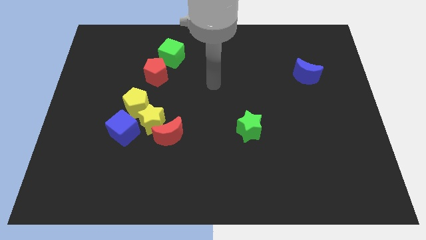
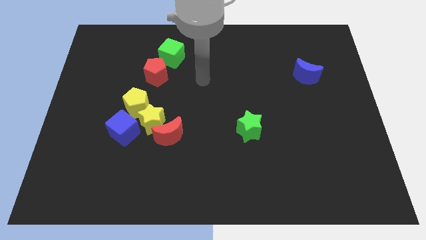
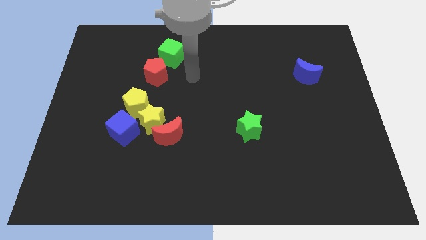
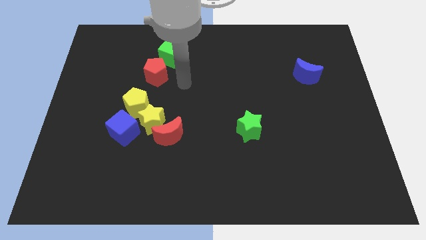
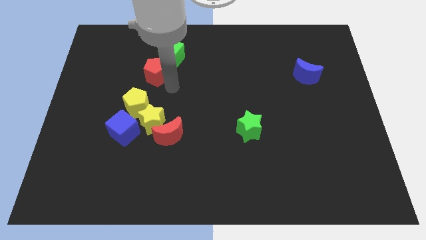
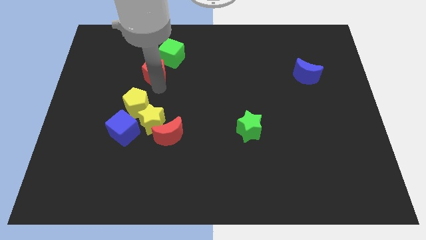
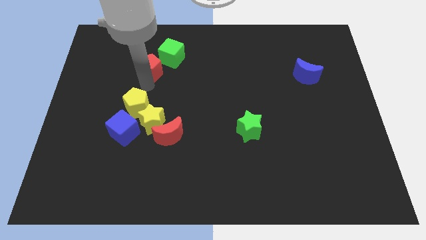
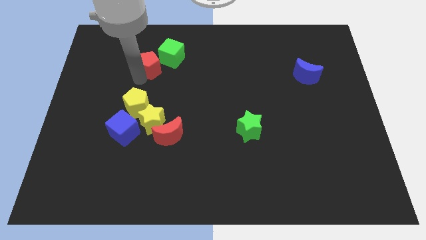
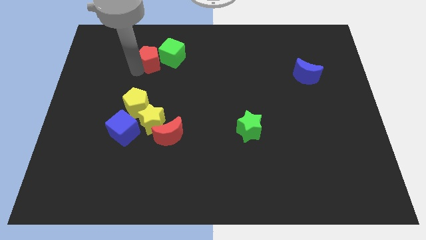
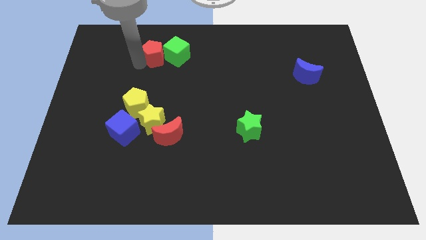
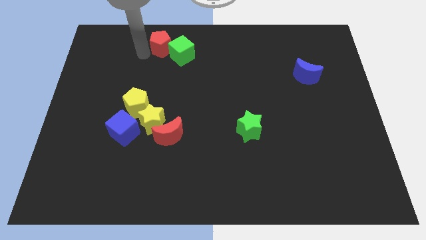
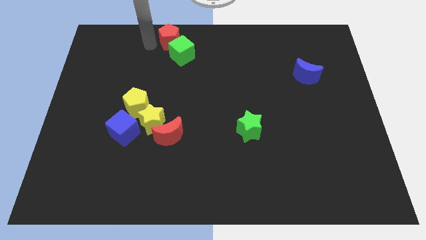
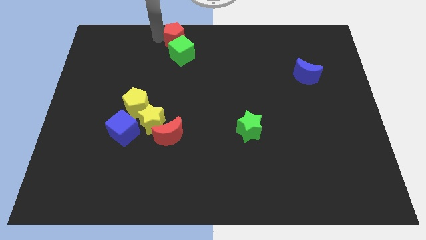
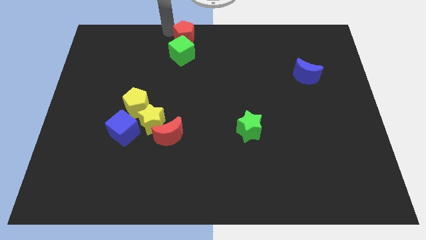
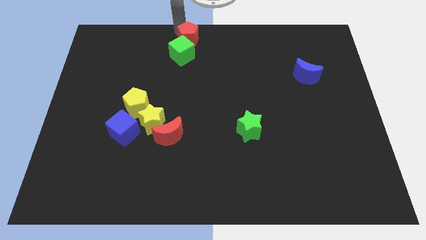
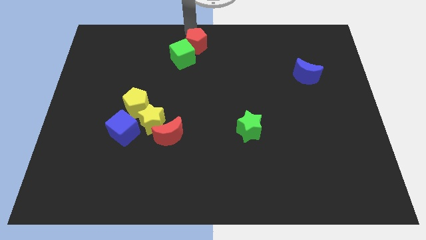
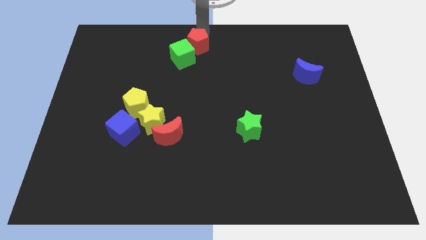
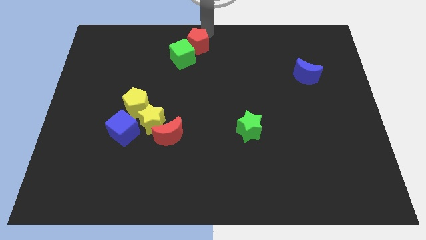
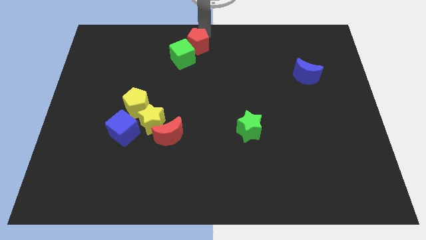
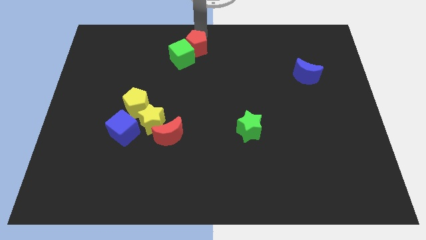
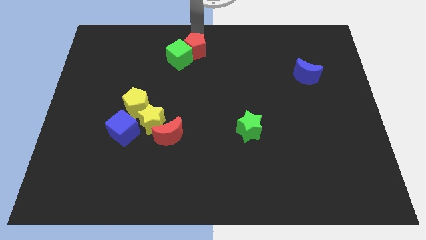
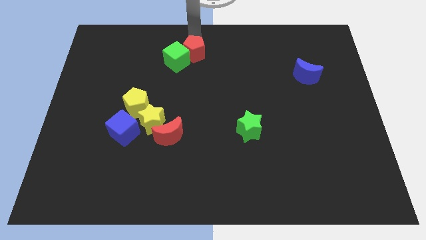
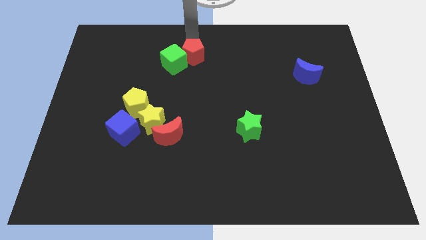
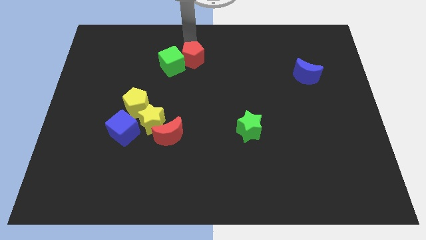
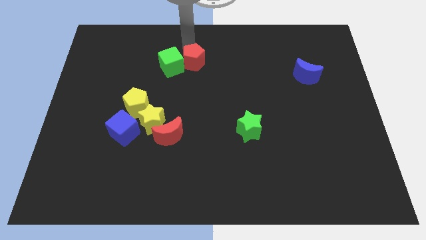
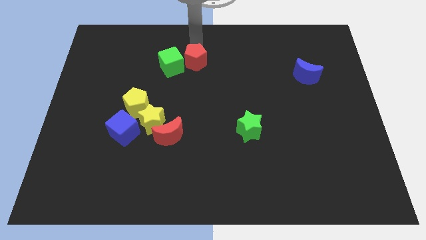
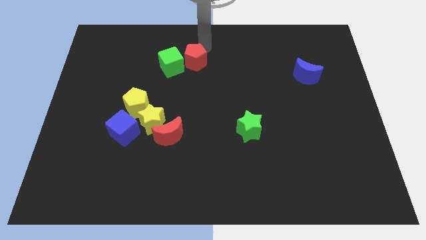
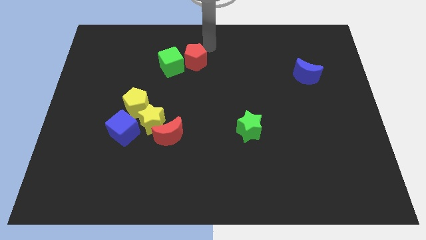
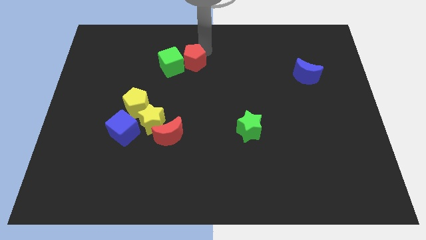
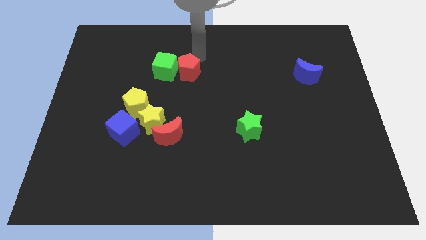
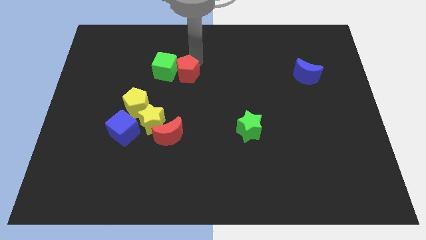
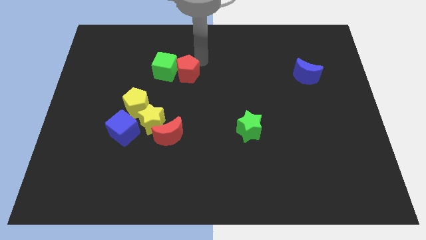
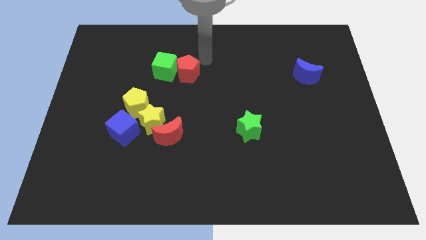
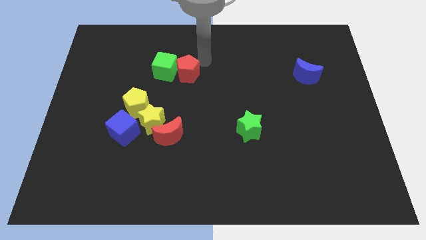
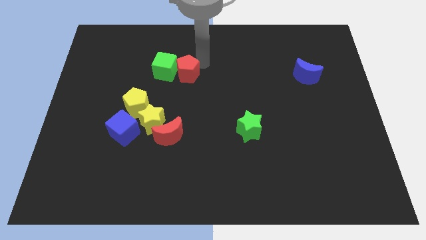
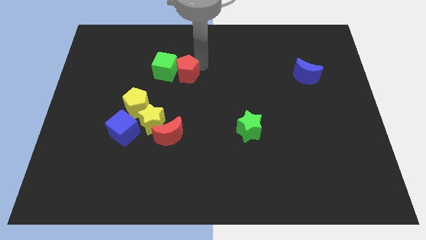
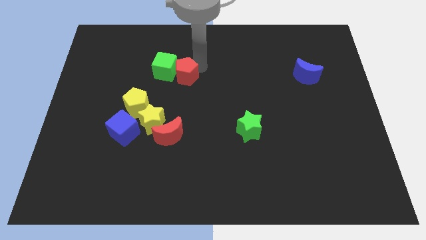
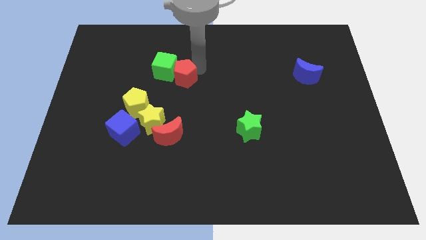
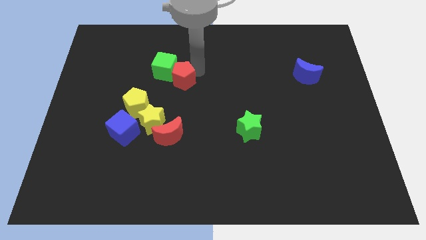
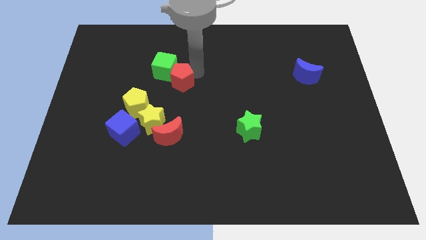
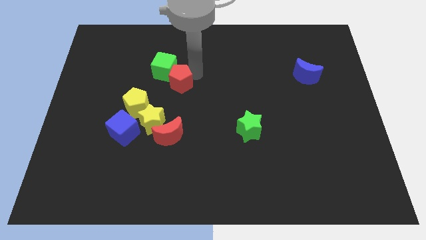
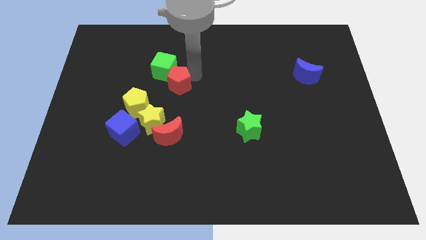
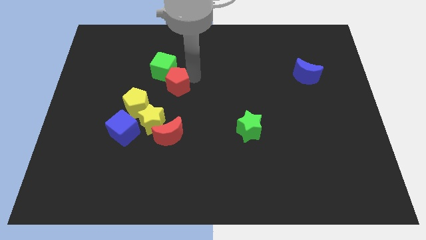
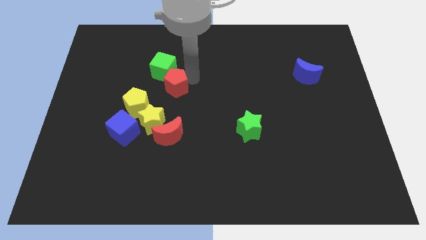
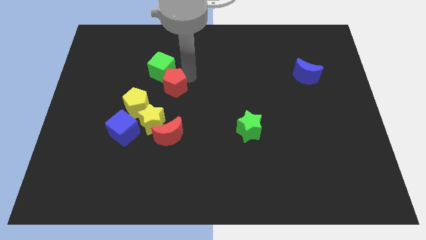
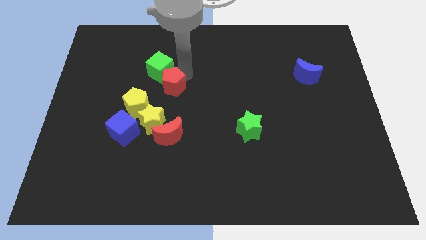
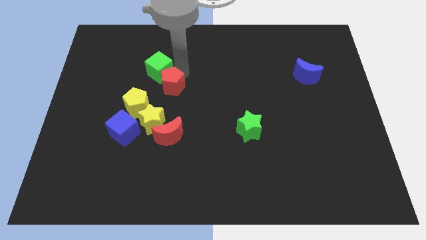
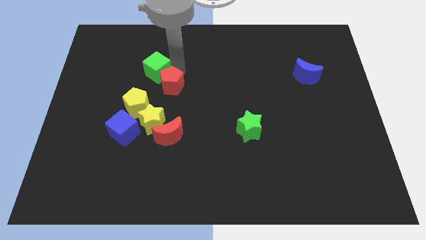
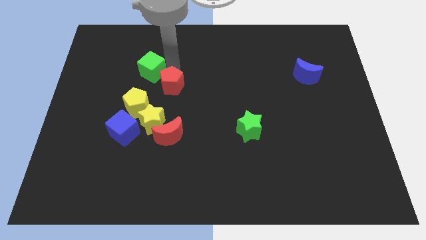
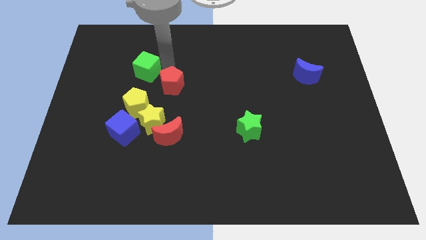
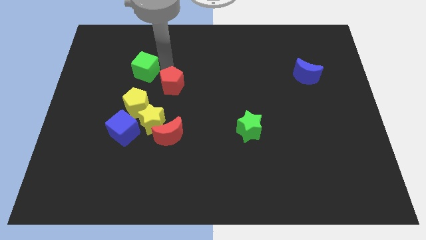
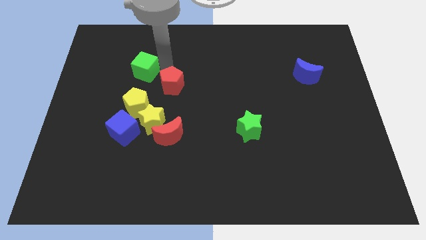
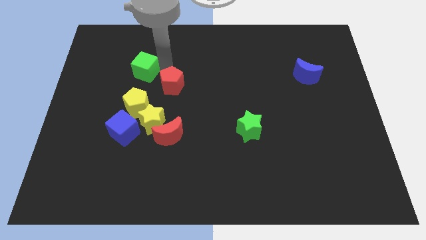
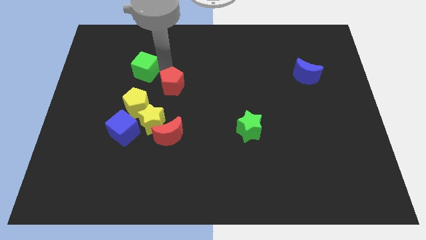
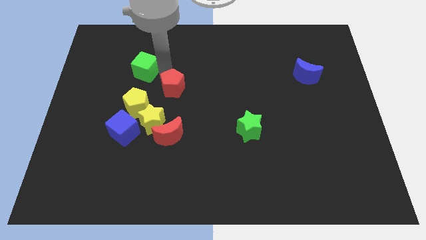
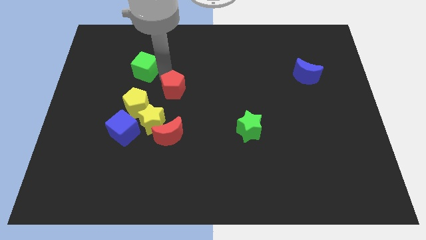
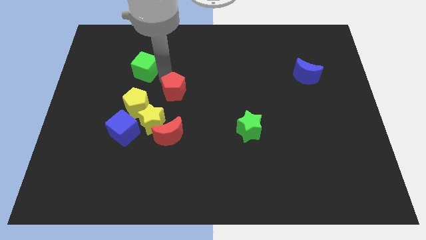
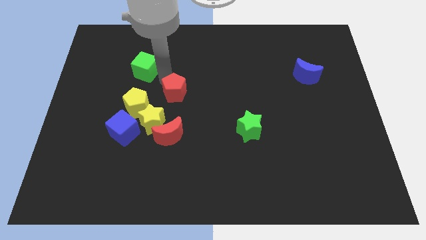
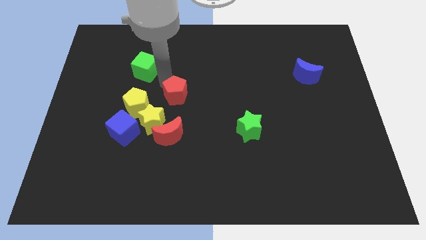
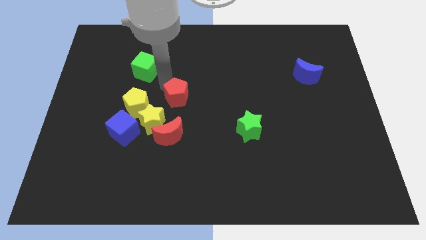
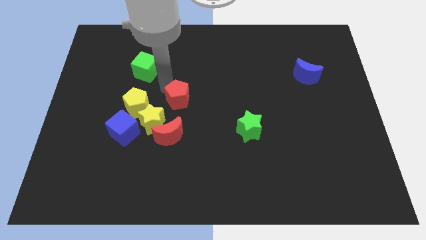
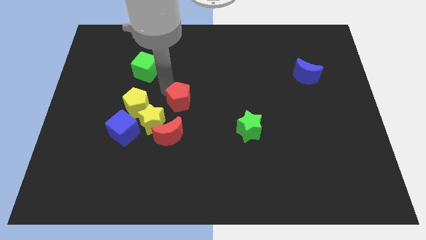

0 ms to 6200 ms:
move the red pentagon down a little

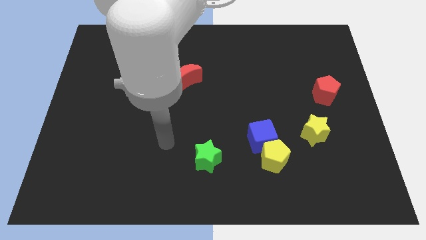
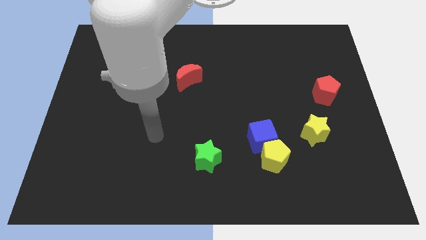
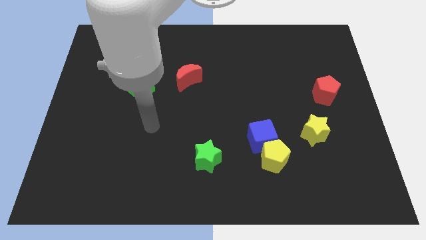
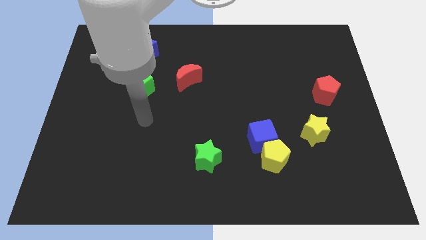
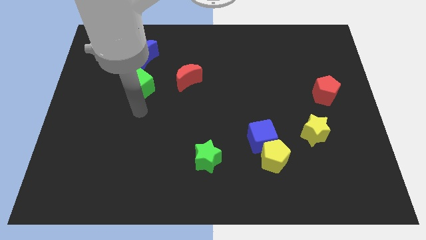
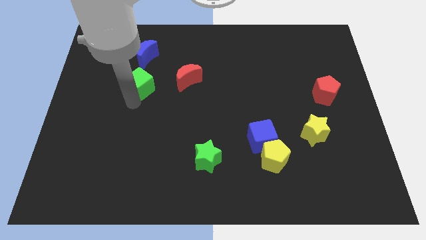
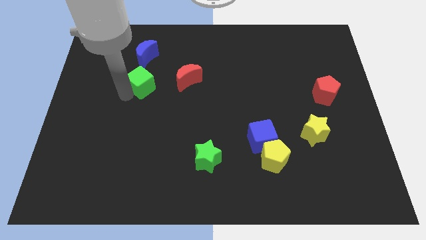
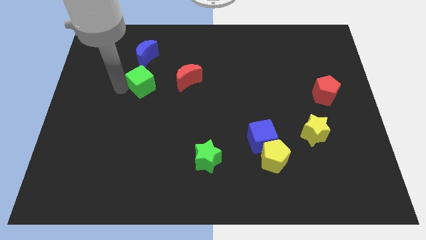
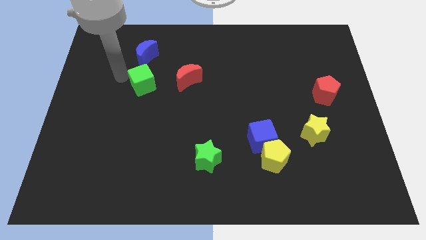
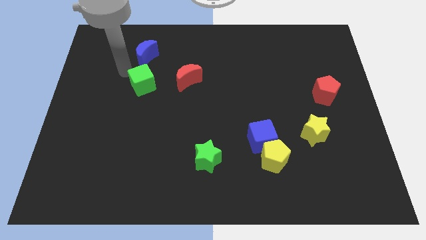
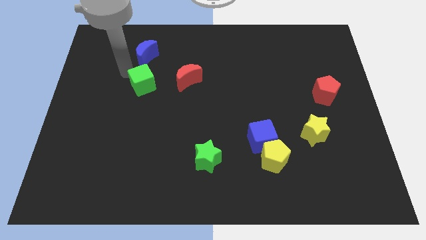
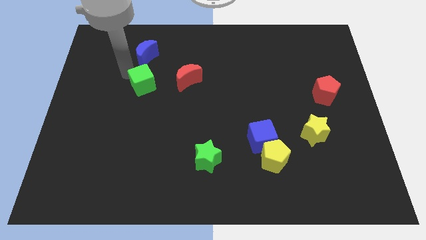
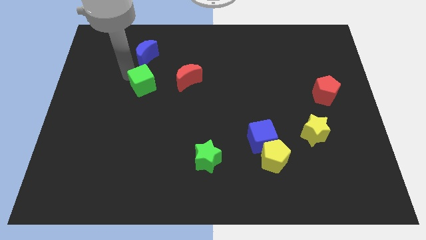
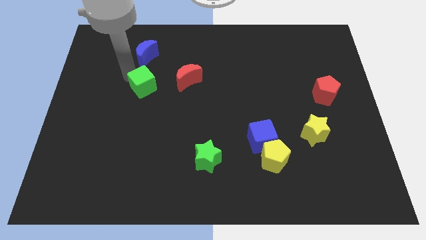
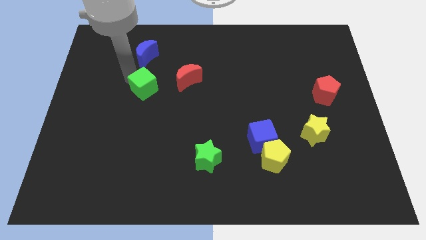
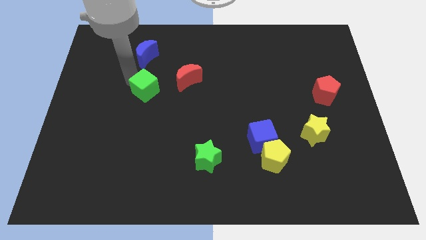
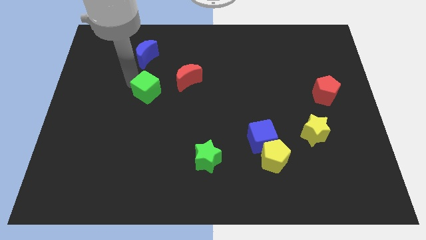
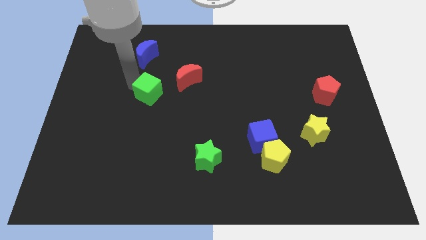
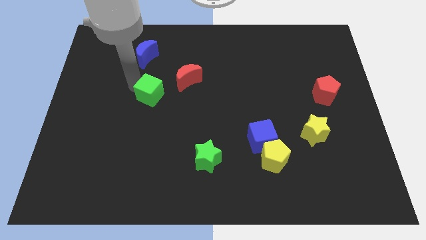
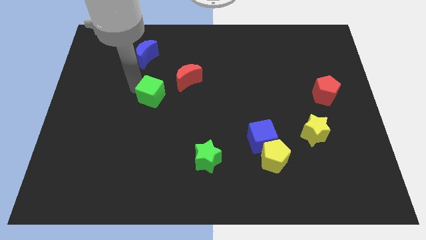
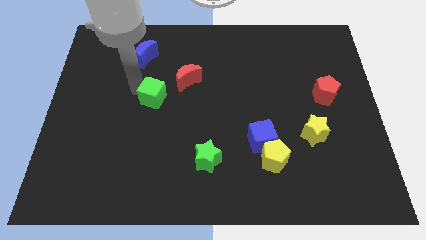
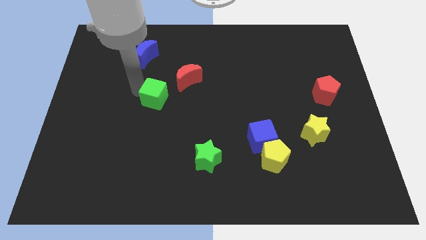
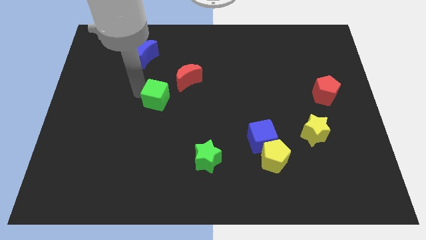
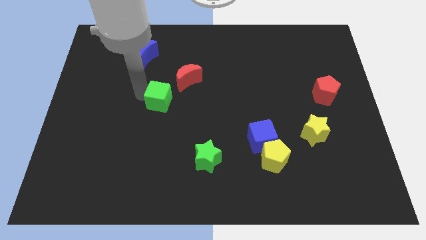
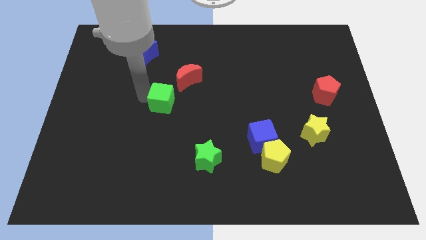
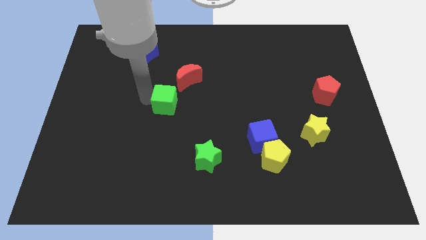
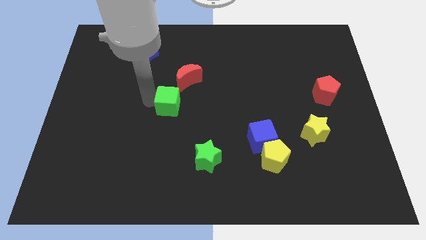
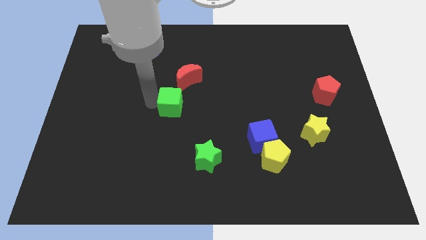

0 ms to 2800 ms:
slightly slide the green cube right
